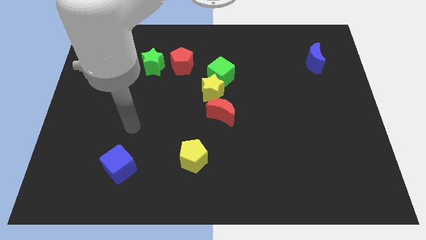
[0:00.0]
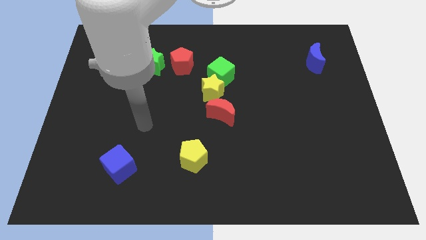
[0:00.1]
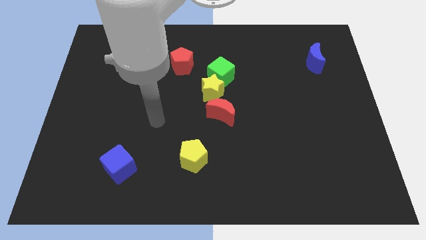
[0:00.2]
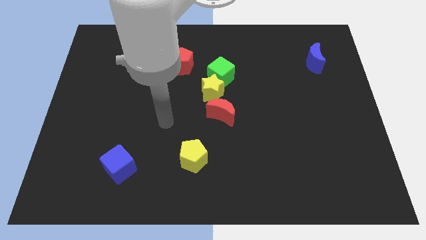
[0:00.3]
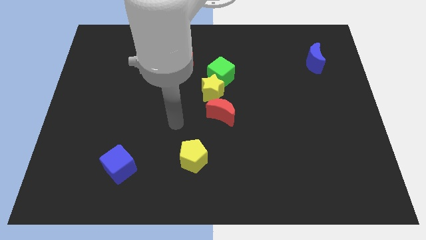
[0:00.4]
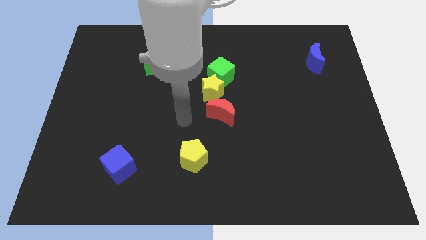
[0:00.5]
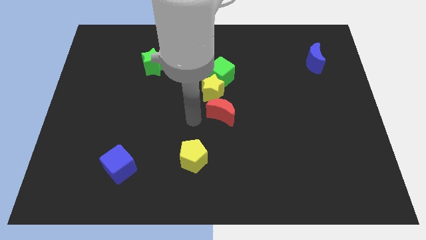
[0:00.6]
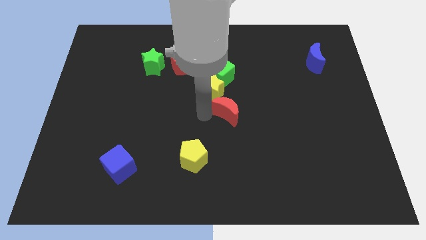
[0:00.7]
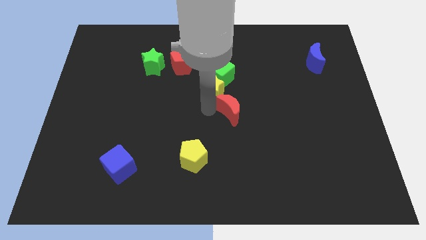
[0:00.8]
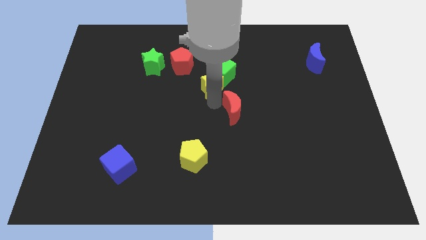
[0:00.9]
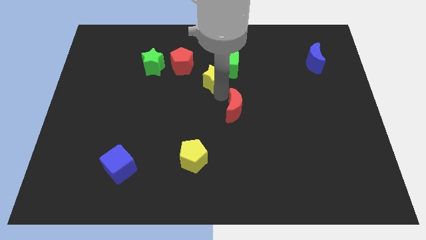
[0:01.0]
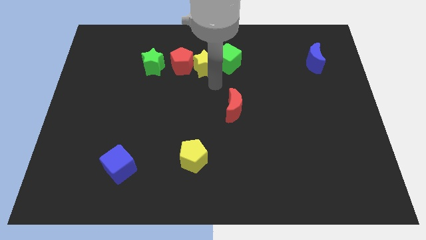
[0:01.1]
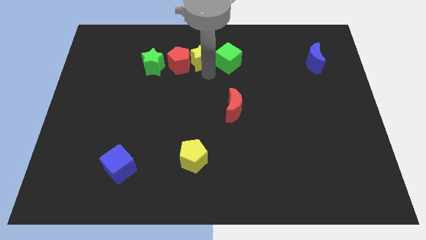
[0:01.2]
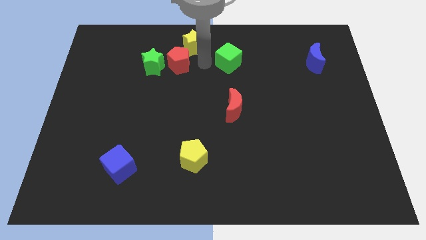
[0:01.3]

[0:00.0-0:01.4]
move the green cube away from the yellow star

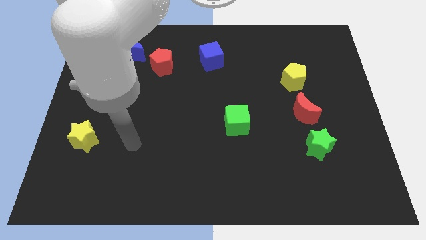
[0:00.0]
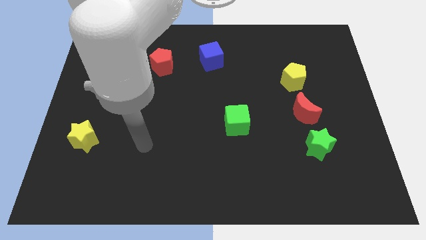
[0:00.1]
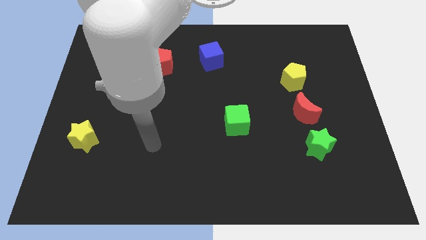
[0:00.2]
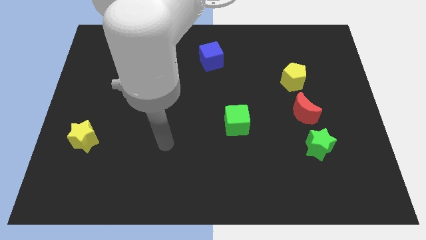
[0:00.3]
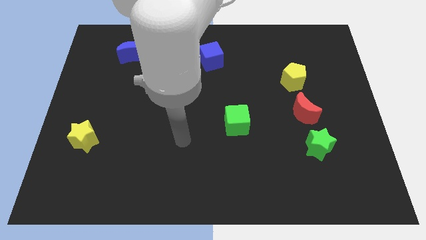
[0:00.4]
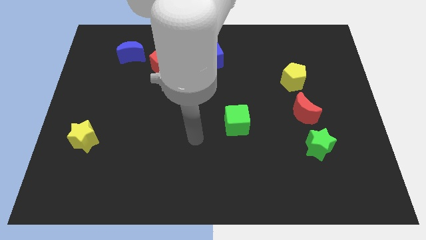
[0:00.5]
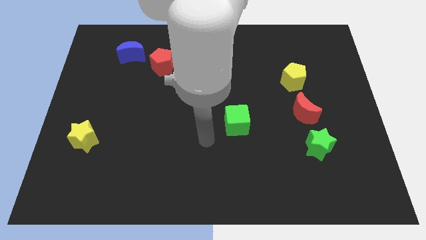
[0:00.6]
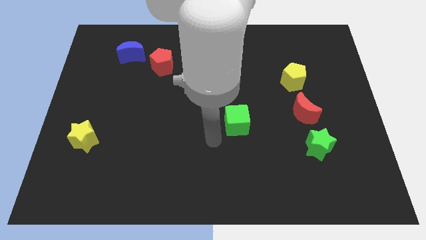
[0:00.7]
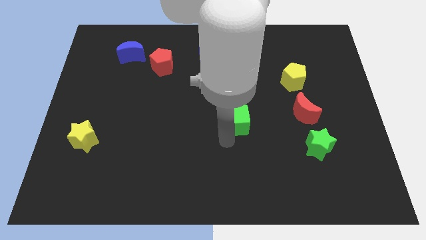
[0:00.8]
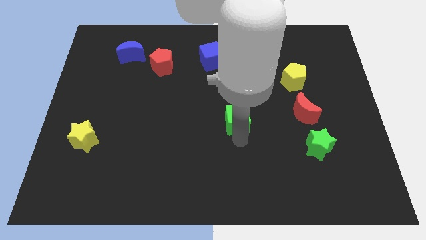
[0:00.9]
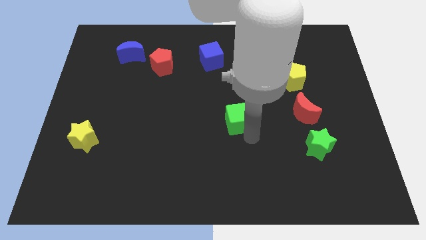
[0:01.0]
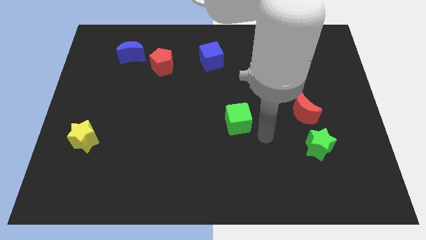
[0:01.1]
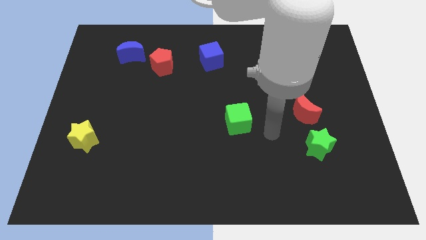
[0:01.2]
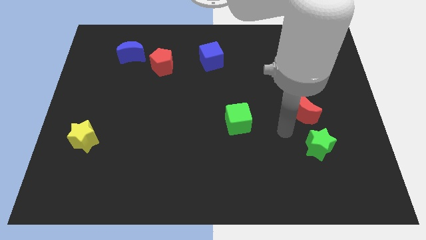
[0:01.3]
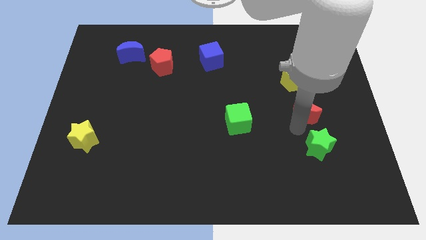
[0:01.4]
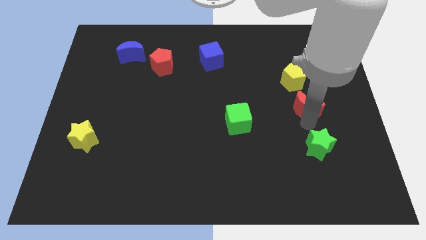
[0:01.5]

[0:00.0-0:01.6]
pull the green star apart from the red moon

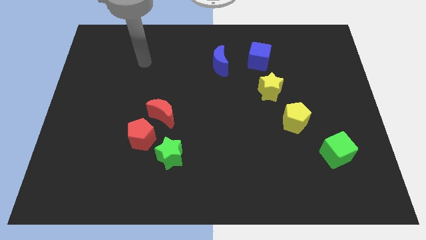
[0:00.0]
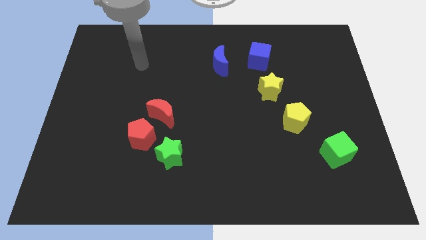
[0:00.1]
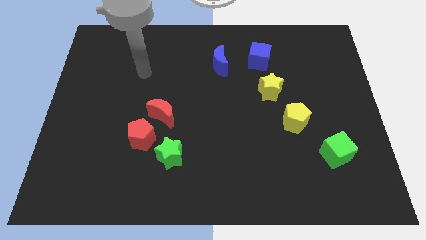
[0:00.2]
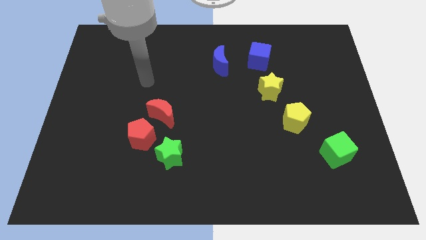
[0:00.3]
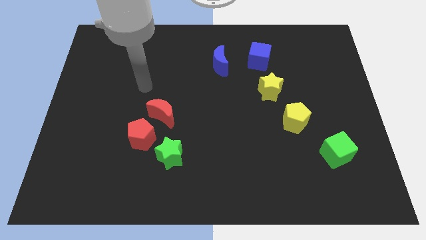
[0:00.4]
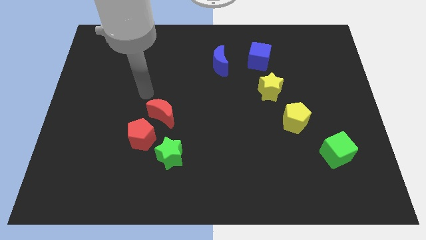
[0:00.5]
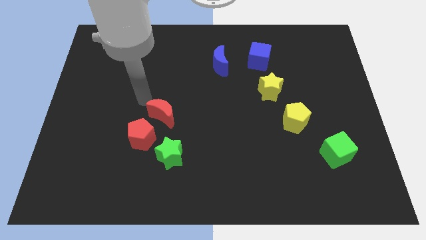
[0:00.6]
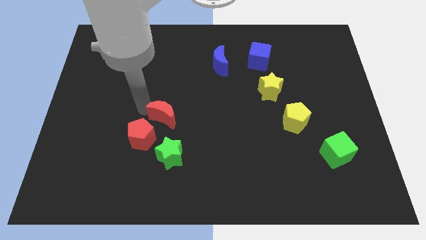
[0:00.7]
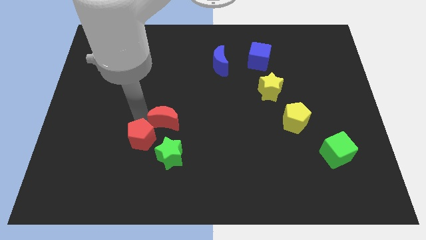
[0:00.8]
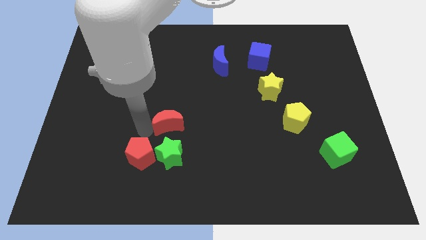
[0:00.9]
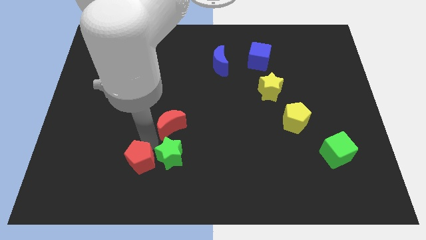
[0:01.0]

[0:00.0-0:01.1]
move the red moon away from the red pentagon

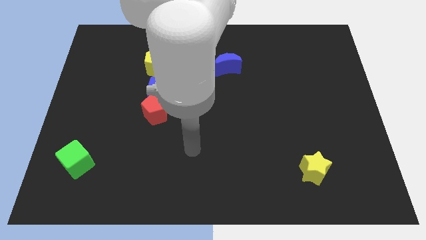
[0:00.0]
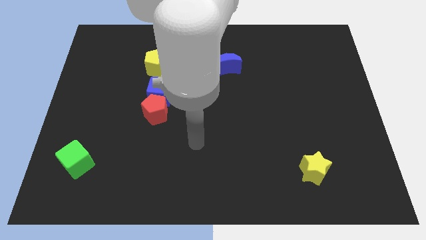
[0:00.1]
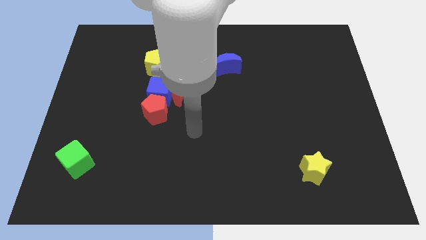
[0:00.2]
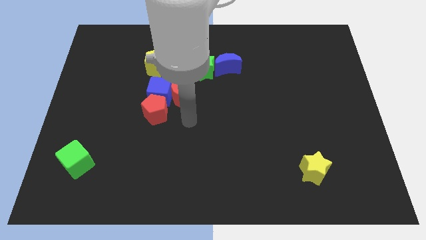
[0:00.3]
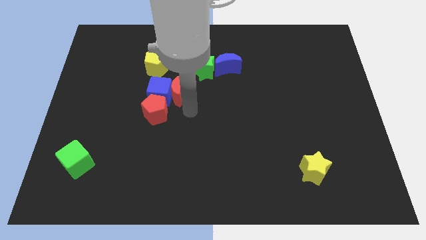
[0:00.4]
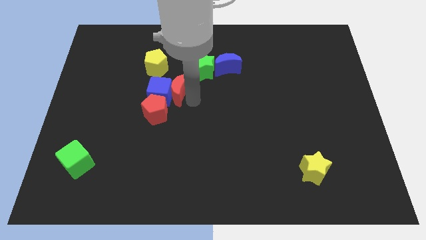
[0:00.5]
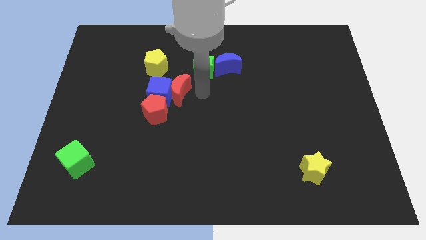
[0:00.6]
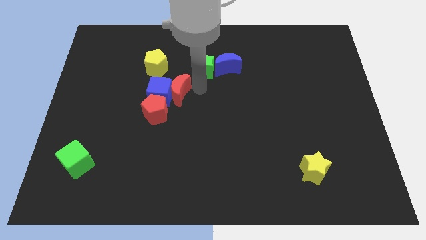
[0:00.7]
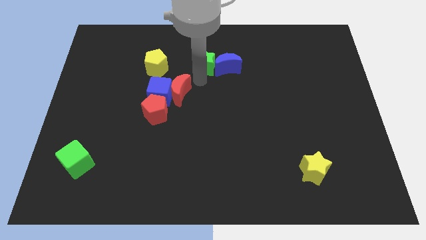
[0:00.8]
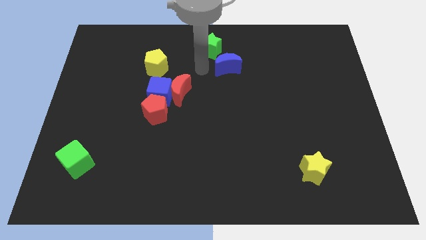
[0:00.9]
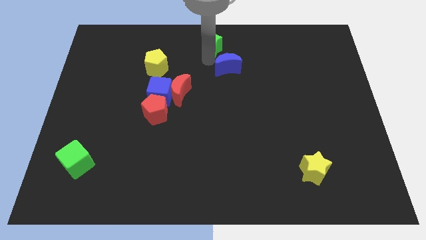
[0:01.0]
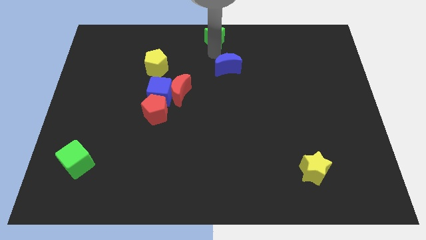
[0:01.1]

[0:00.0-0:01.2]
move the blue moon away from the green star

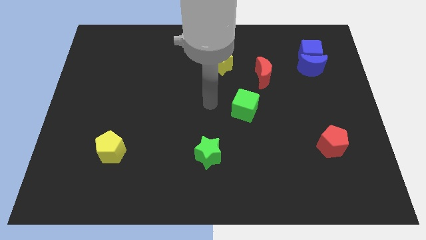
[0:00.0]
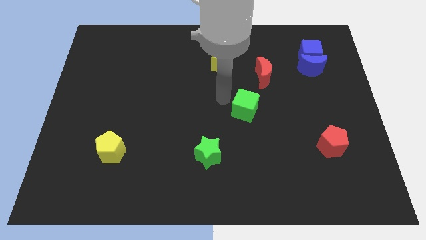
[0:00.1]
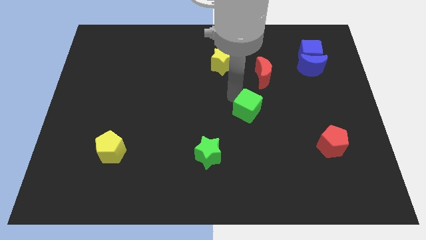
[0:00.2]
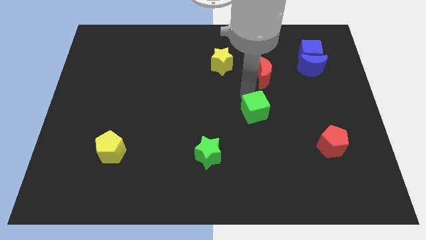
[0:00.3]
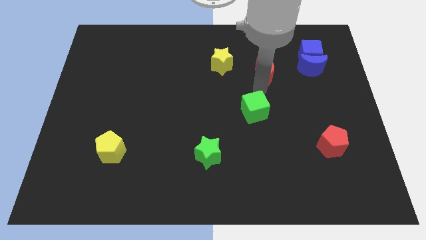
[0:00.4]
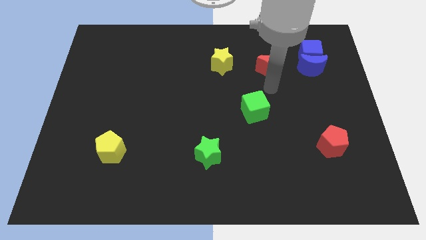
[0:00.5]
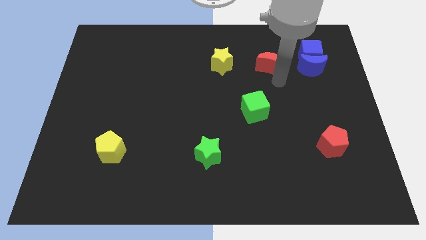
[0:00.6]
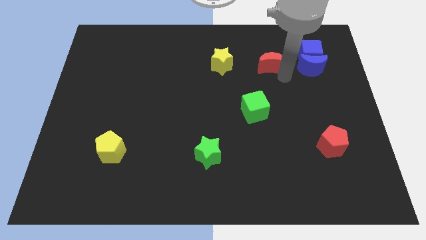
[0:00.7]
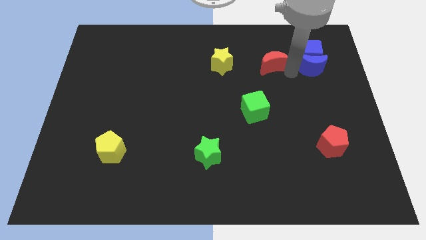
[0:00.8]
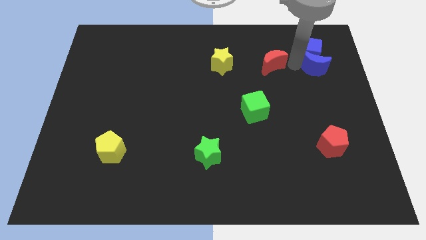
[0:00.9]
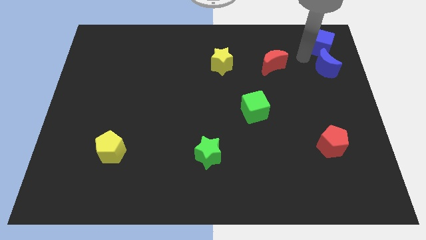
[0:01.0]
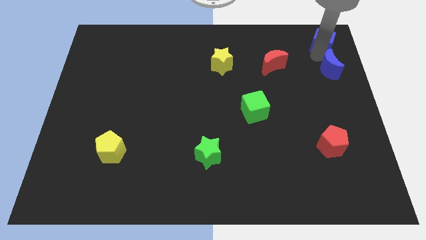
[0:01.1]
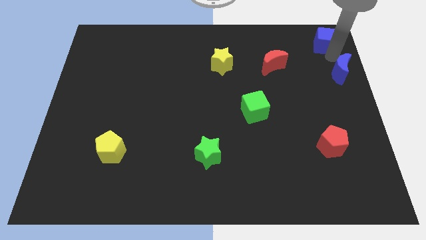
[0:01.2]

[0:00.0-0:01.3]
separate the blue moon from the blue cube

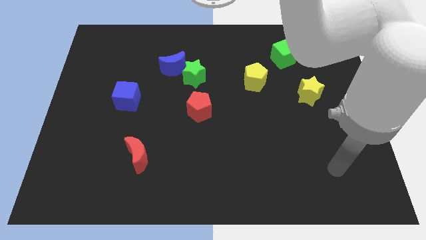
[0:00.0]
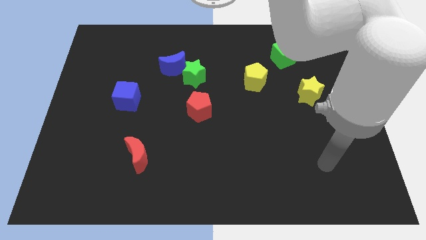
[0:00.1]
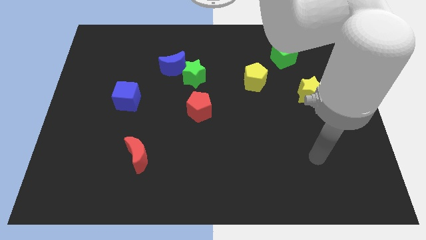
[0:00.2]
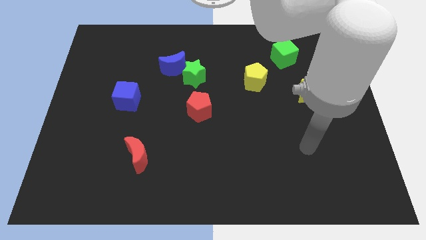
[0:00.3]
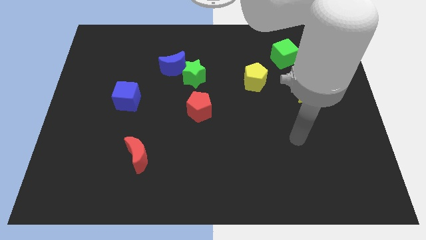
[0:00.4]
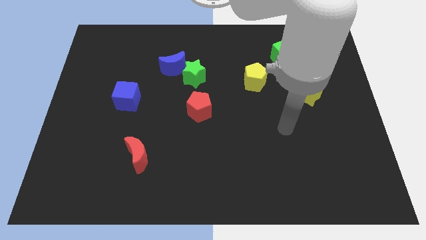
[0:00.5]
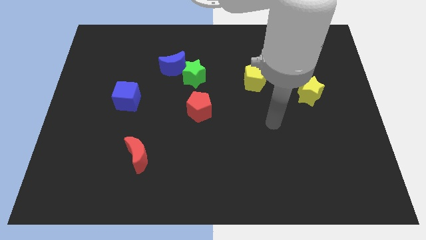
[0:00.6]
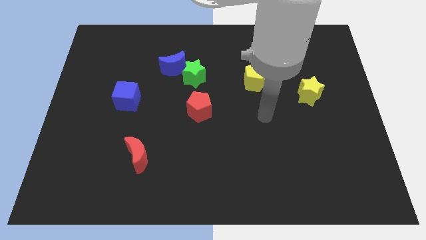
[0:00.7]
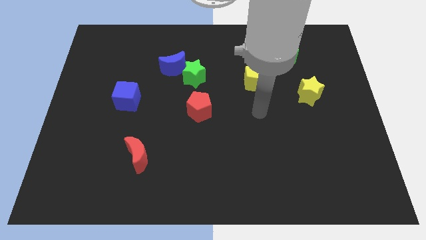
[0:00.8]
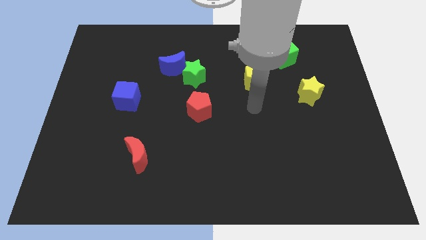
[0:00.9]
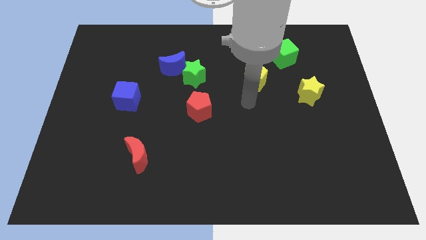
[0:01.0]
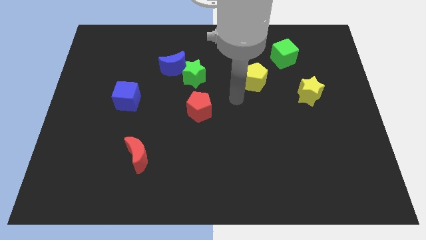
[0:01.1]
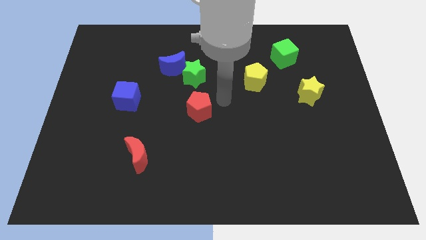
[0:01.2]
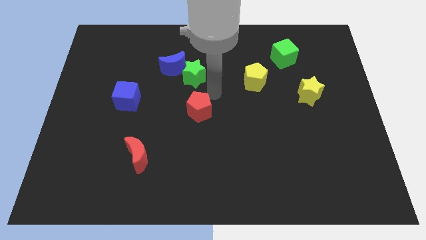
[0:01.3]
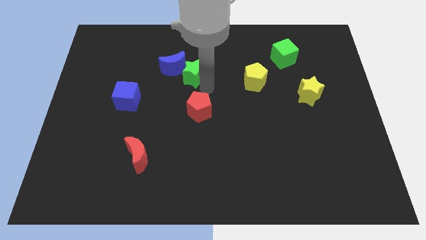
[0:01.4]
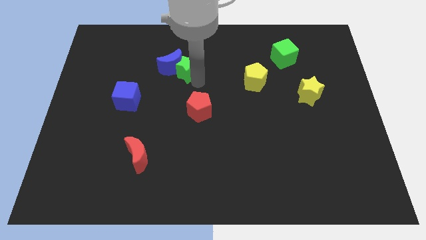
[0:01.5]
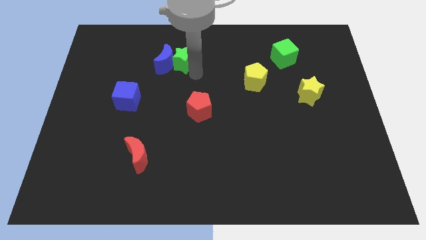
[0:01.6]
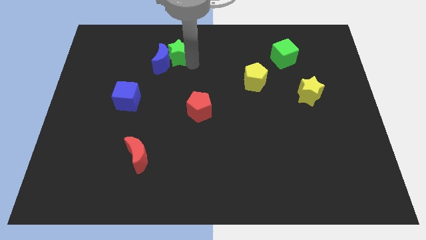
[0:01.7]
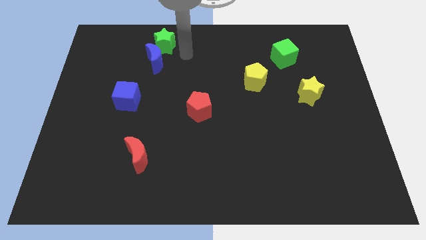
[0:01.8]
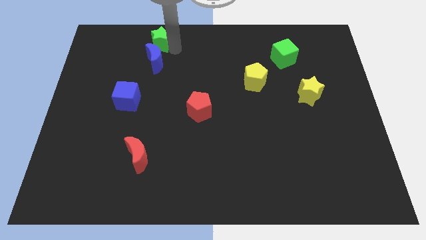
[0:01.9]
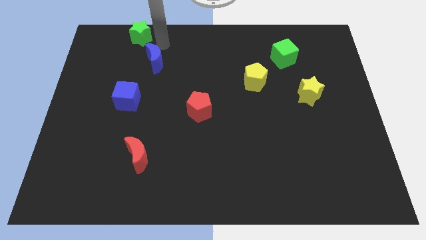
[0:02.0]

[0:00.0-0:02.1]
separate the blue moon from the green star

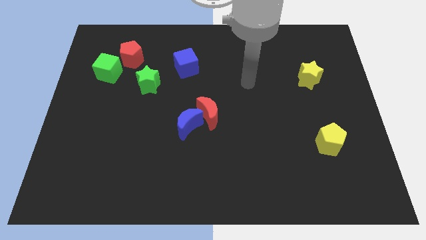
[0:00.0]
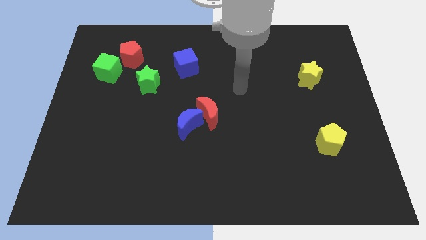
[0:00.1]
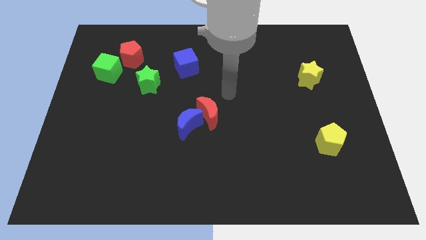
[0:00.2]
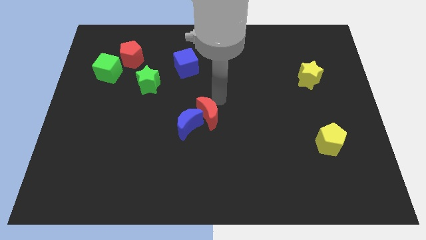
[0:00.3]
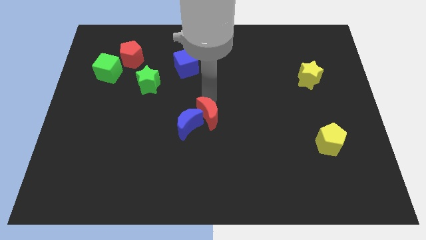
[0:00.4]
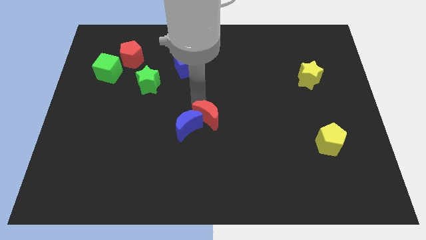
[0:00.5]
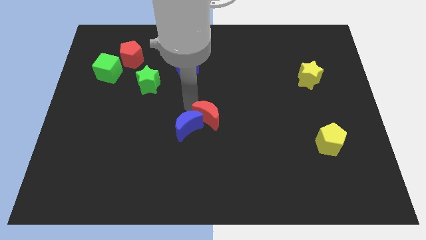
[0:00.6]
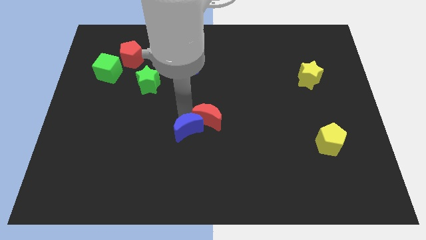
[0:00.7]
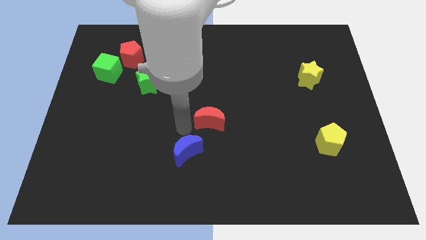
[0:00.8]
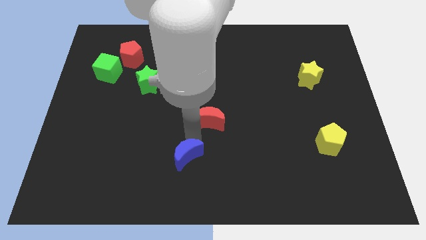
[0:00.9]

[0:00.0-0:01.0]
move the red moon away from the blue moon
